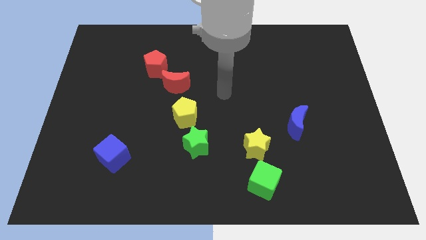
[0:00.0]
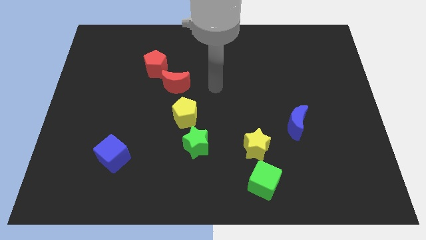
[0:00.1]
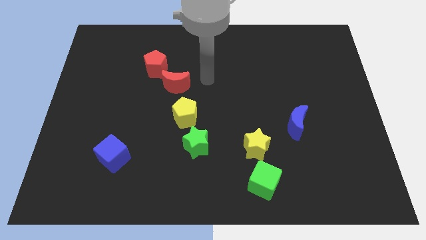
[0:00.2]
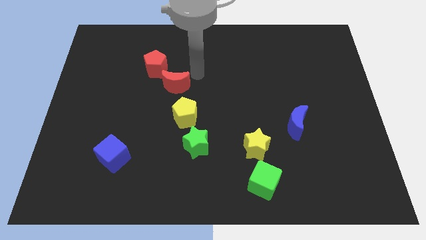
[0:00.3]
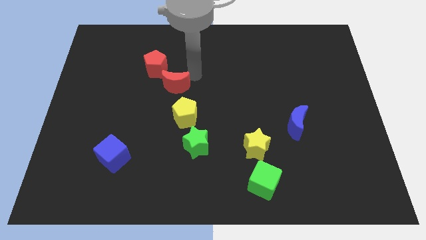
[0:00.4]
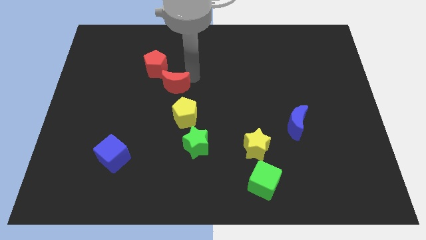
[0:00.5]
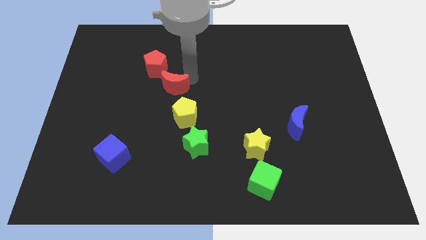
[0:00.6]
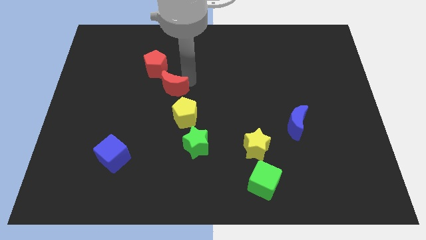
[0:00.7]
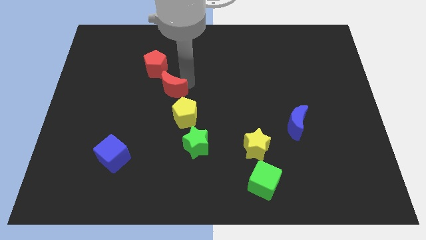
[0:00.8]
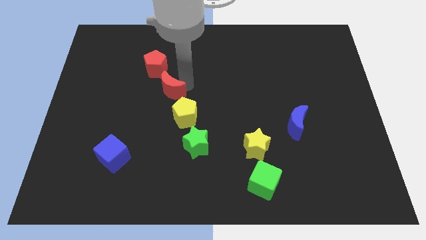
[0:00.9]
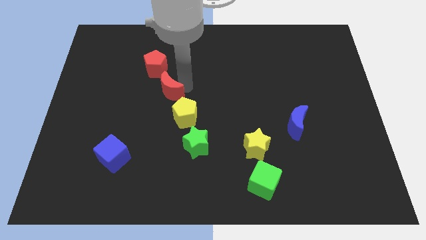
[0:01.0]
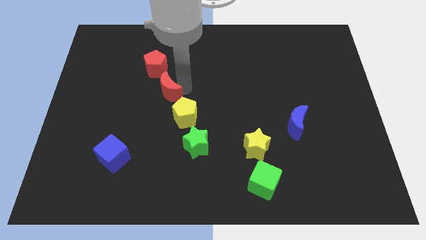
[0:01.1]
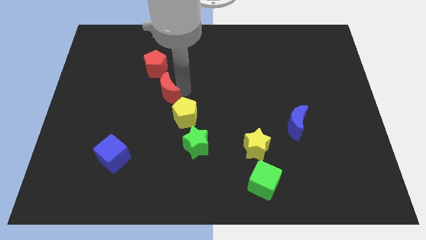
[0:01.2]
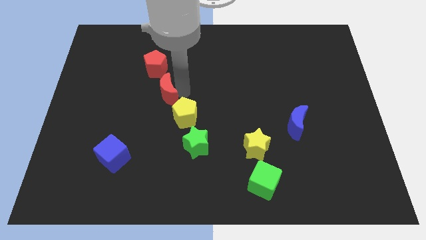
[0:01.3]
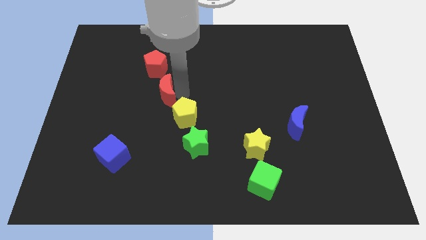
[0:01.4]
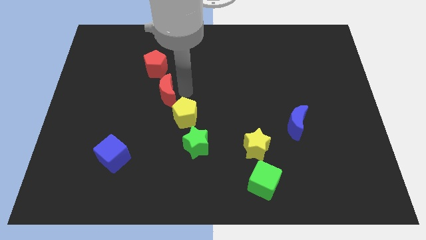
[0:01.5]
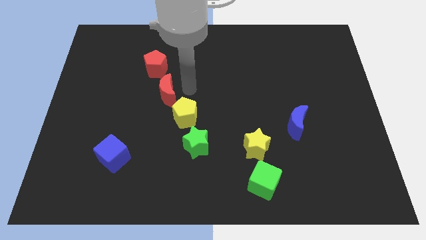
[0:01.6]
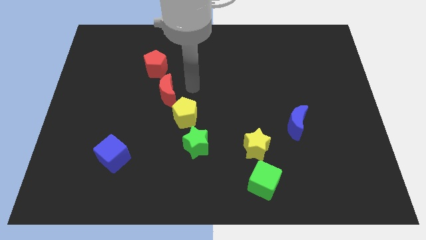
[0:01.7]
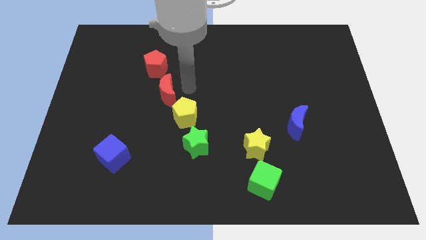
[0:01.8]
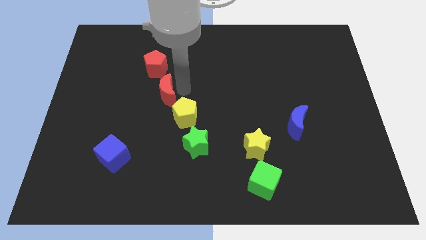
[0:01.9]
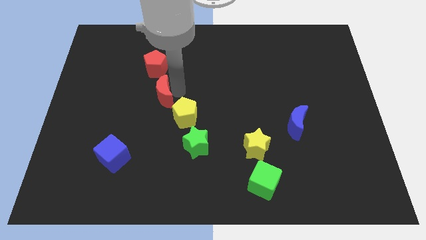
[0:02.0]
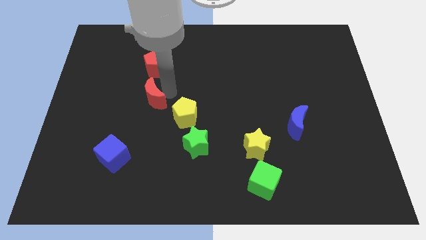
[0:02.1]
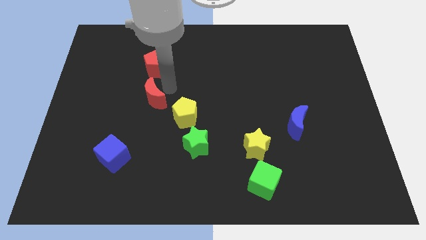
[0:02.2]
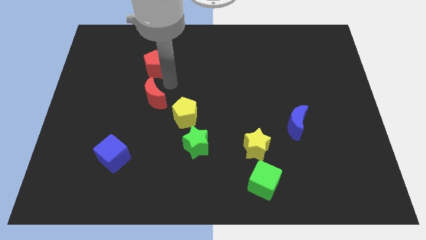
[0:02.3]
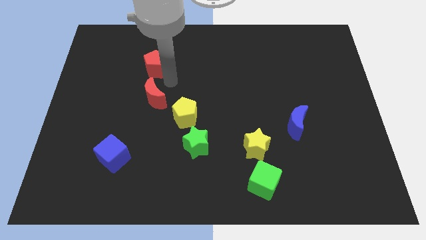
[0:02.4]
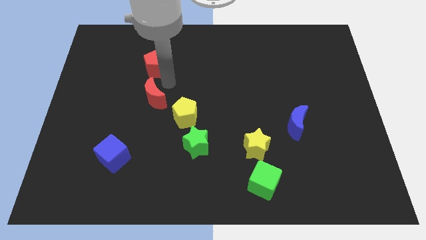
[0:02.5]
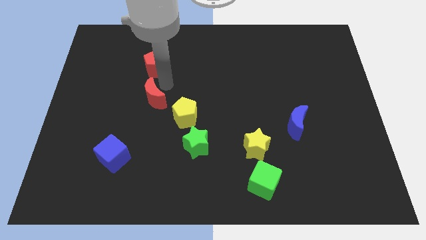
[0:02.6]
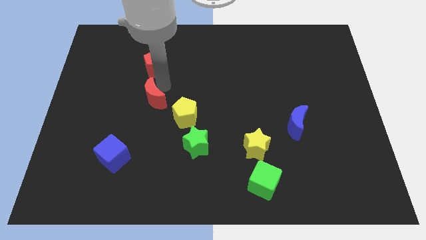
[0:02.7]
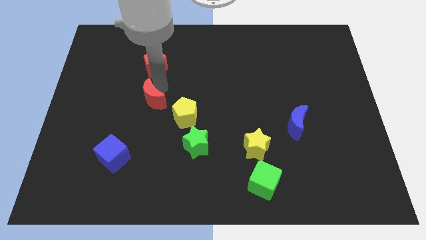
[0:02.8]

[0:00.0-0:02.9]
slide the red moon downwards and left diagonally a little

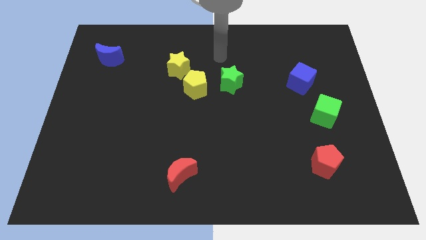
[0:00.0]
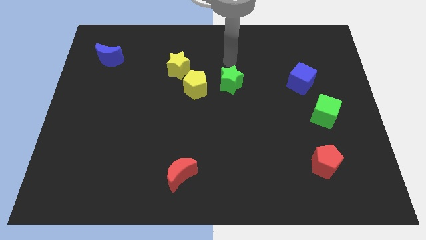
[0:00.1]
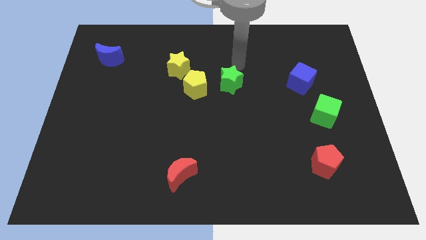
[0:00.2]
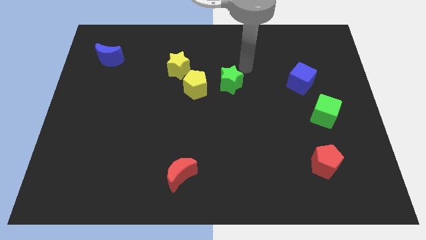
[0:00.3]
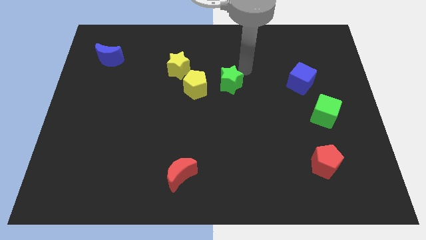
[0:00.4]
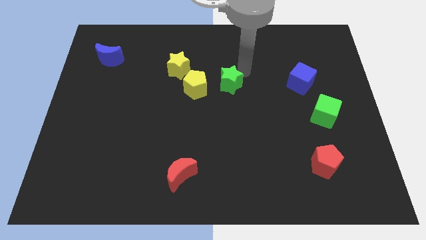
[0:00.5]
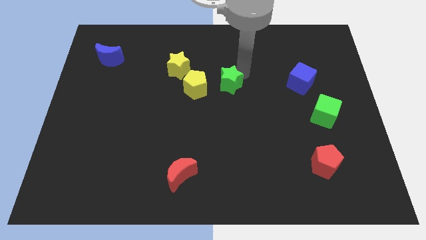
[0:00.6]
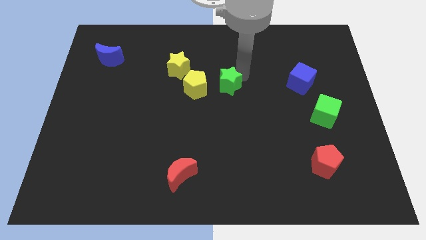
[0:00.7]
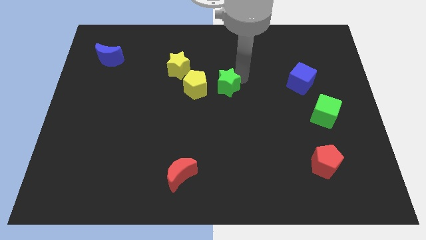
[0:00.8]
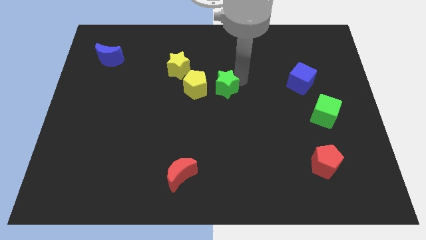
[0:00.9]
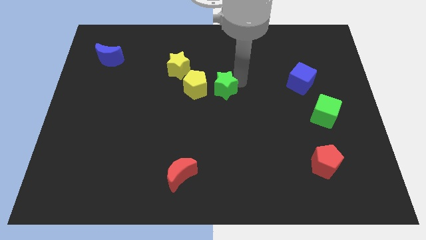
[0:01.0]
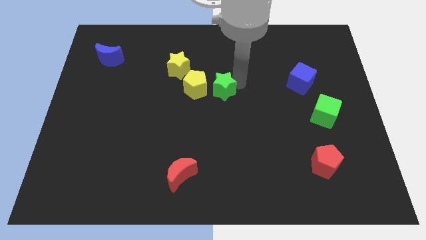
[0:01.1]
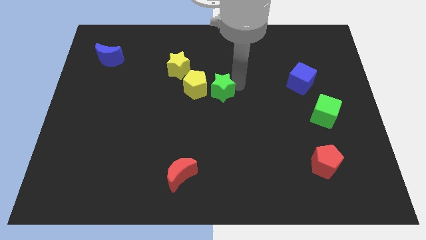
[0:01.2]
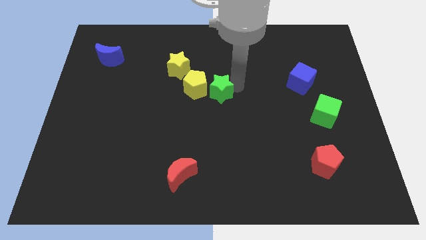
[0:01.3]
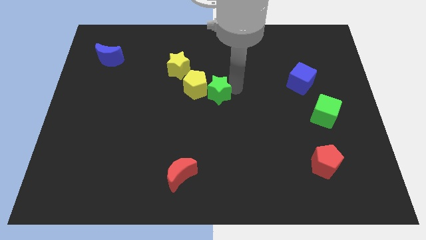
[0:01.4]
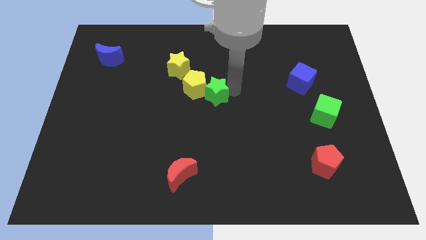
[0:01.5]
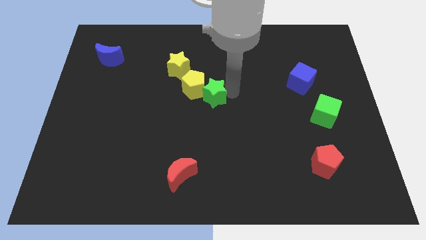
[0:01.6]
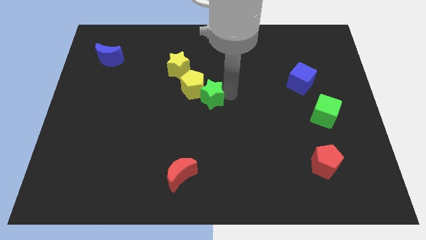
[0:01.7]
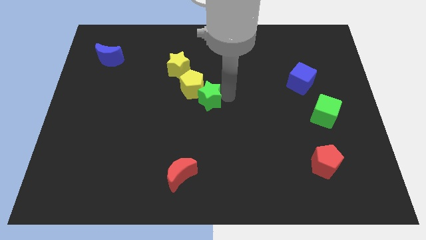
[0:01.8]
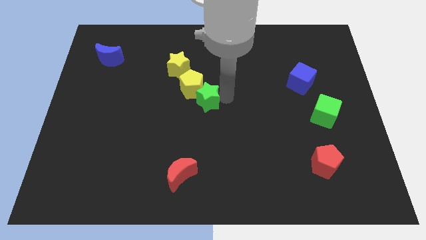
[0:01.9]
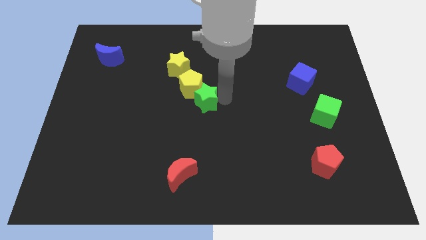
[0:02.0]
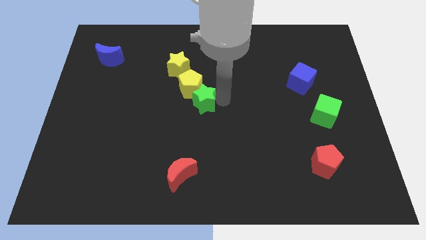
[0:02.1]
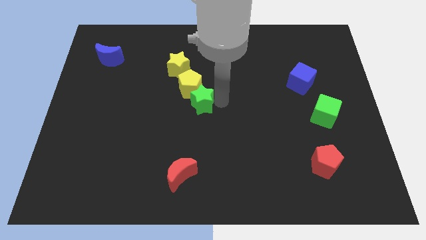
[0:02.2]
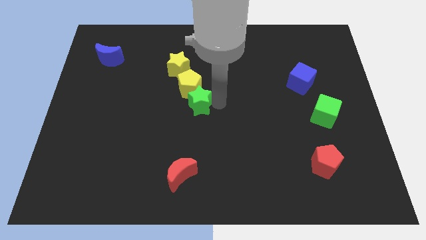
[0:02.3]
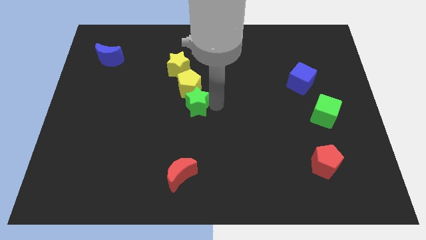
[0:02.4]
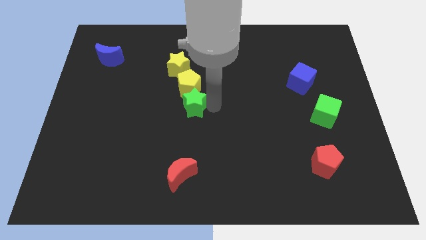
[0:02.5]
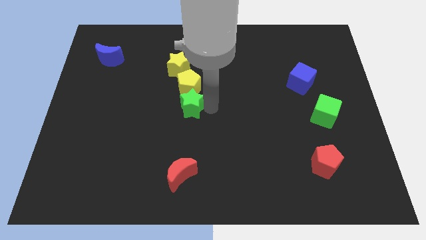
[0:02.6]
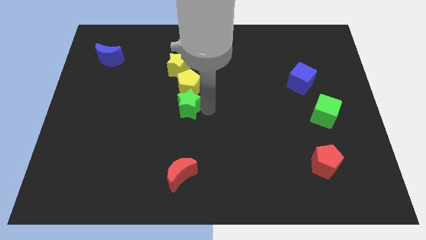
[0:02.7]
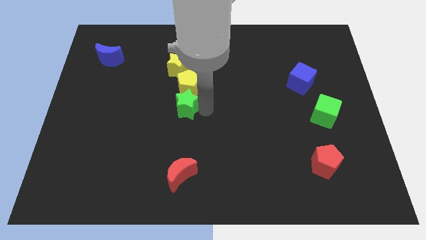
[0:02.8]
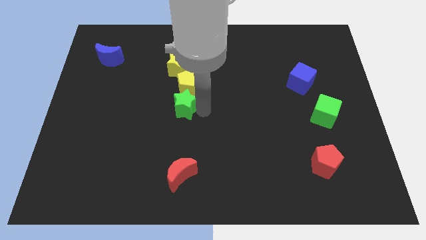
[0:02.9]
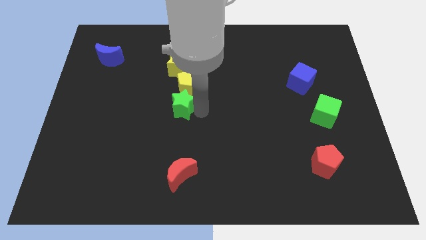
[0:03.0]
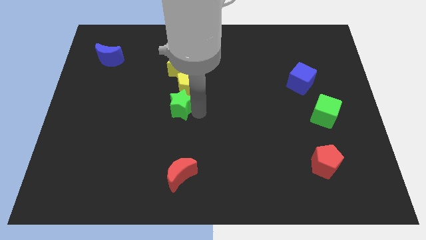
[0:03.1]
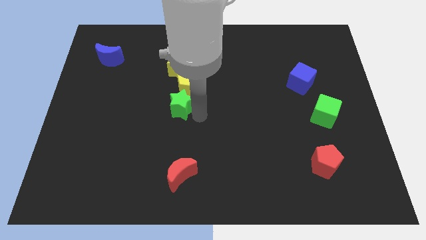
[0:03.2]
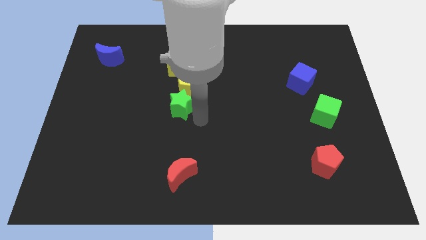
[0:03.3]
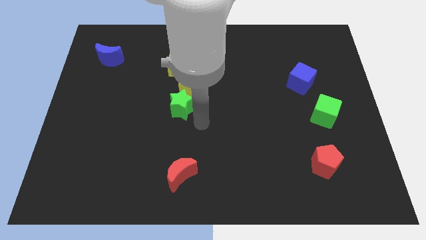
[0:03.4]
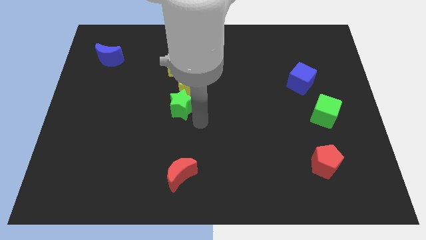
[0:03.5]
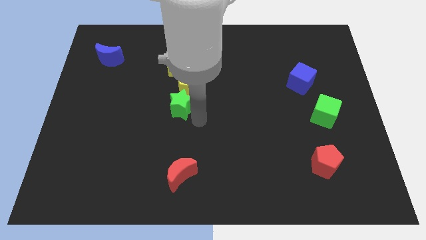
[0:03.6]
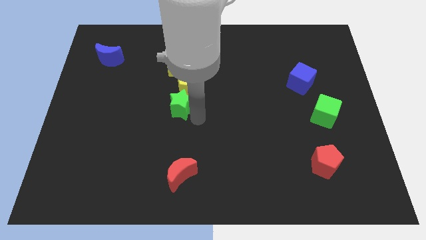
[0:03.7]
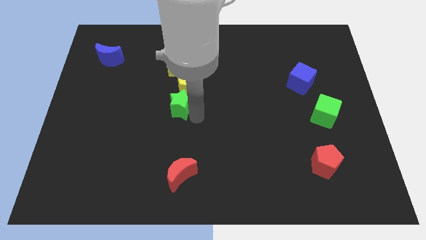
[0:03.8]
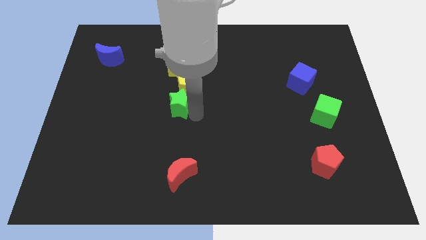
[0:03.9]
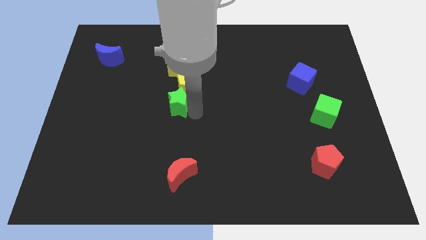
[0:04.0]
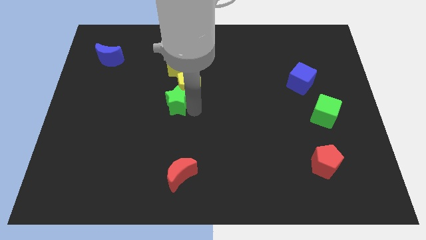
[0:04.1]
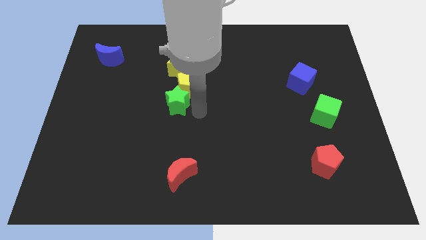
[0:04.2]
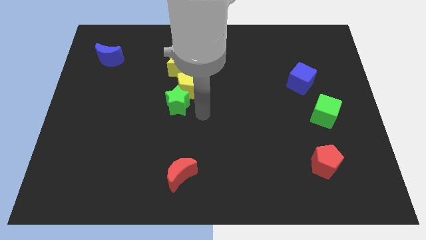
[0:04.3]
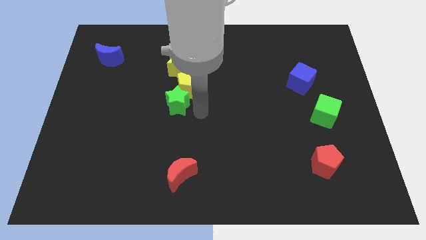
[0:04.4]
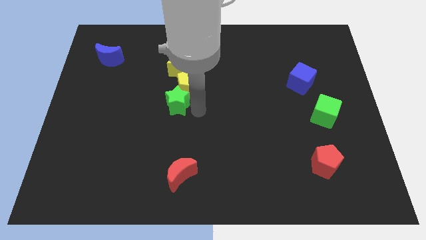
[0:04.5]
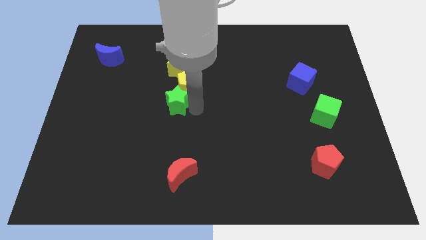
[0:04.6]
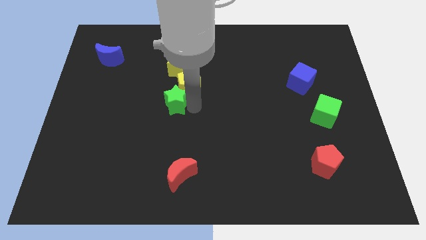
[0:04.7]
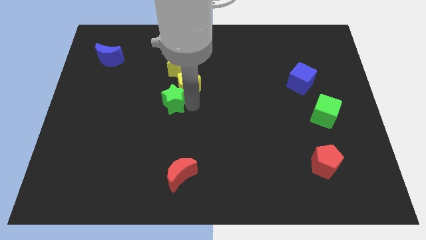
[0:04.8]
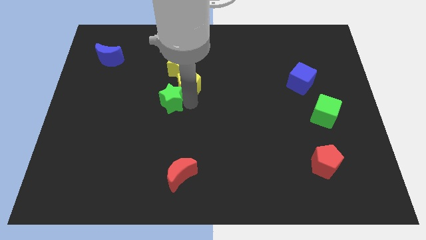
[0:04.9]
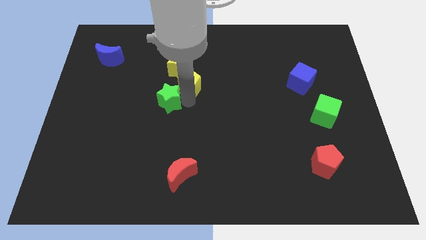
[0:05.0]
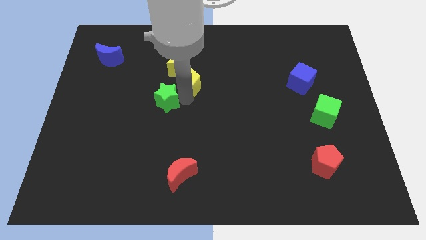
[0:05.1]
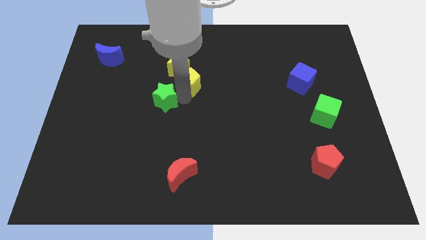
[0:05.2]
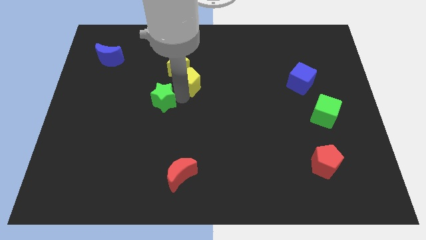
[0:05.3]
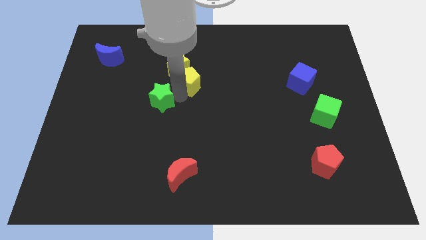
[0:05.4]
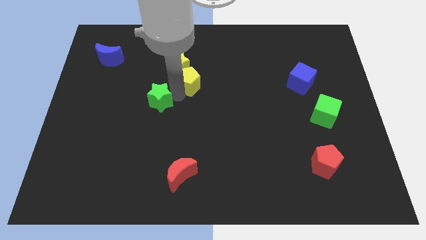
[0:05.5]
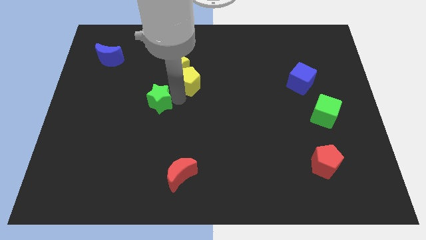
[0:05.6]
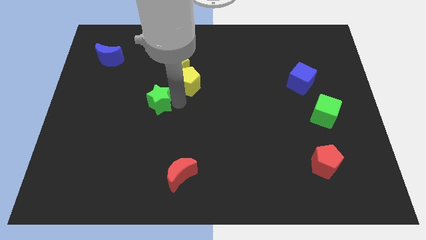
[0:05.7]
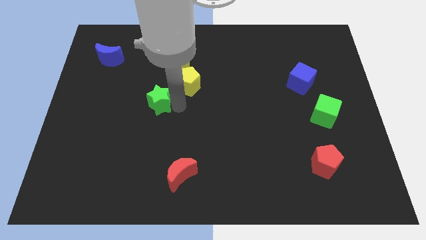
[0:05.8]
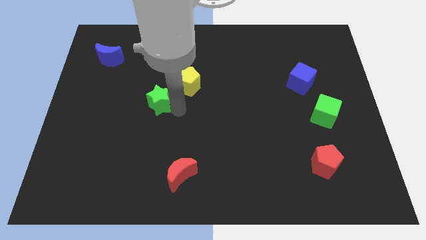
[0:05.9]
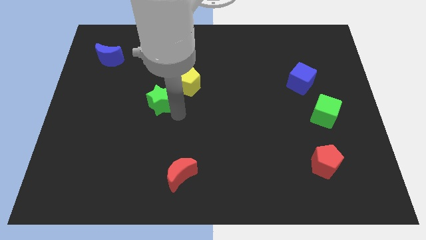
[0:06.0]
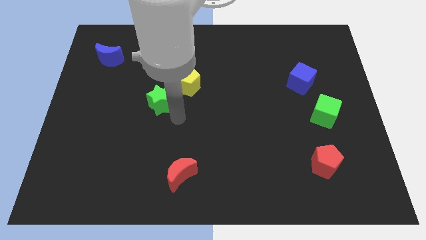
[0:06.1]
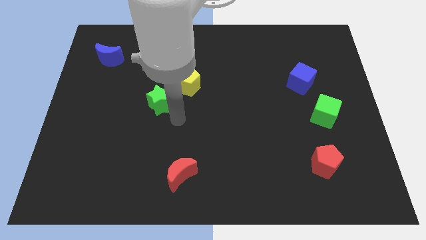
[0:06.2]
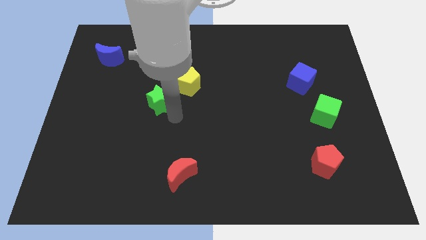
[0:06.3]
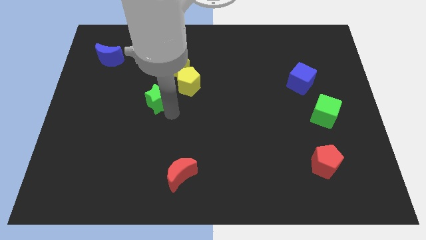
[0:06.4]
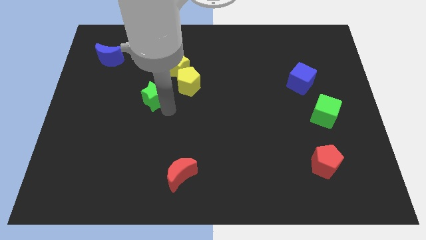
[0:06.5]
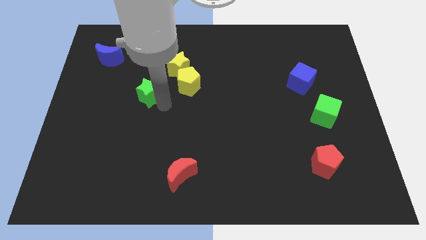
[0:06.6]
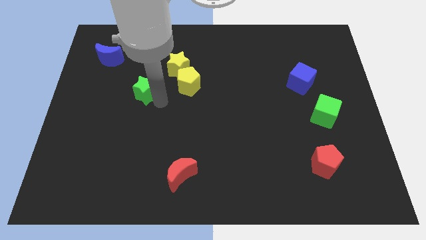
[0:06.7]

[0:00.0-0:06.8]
push the green star to the left
